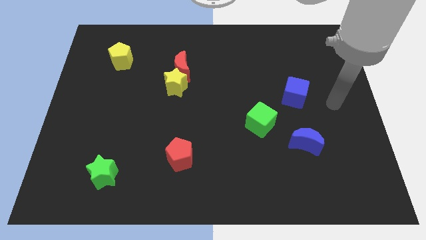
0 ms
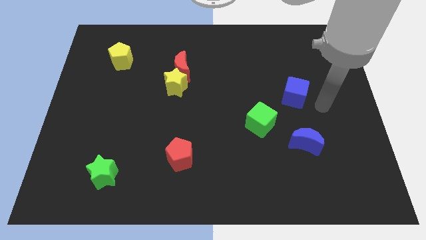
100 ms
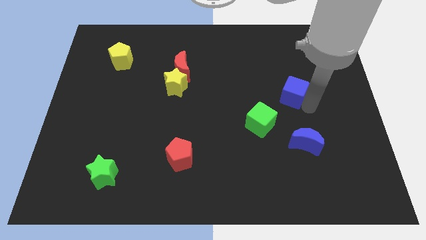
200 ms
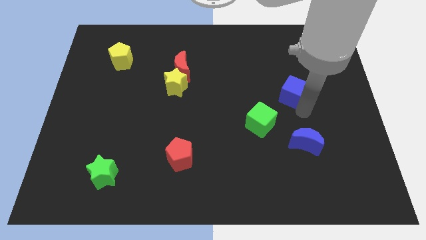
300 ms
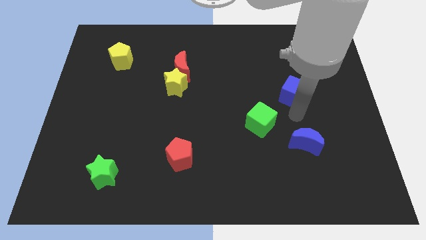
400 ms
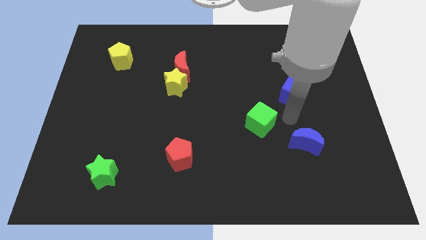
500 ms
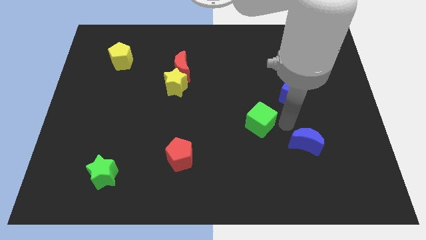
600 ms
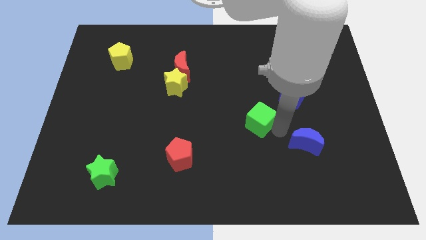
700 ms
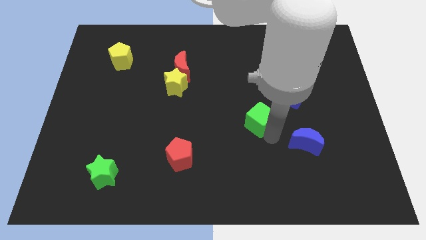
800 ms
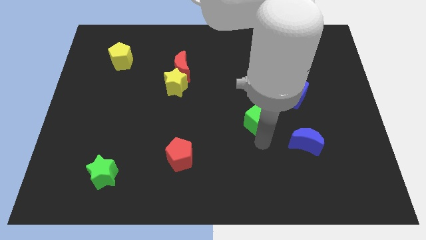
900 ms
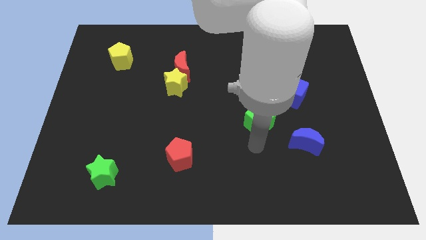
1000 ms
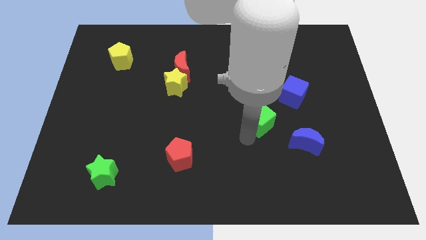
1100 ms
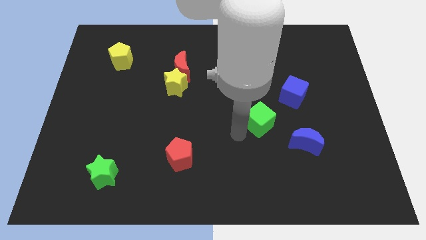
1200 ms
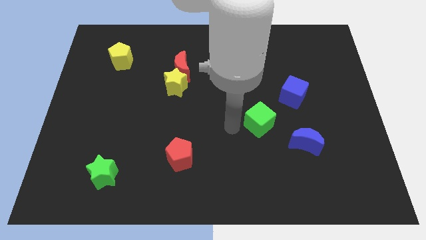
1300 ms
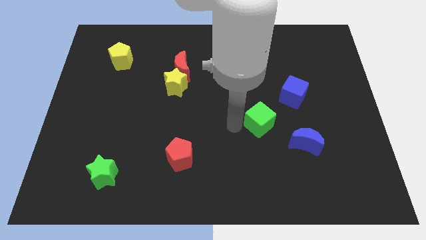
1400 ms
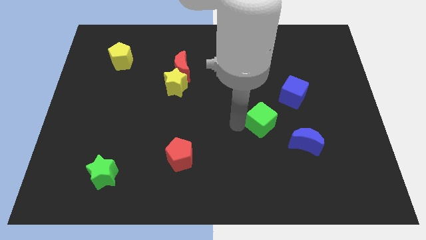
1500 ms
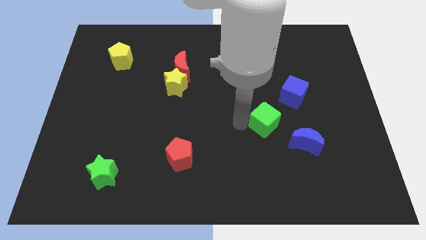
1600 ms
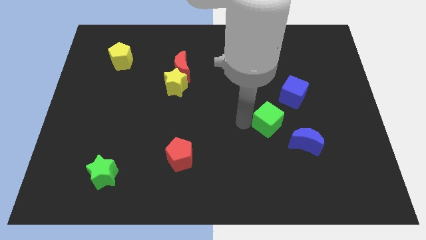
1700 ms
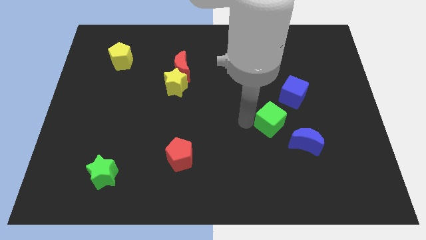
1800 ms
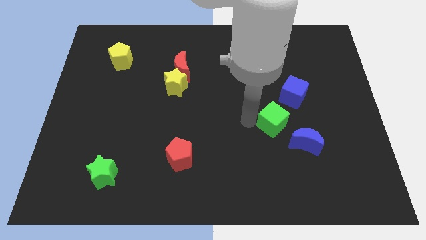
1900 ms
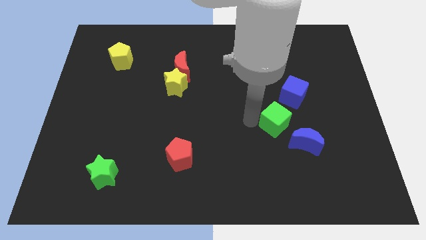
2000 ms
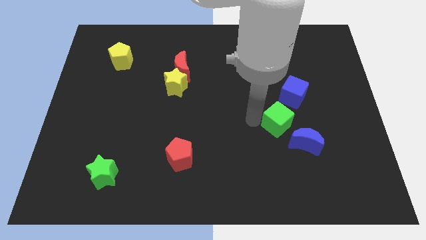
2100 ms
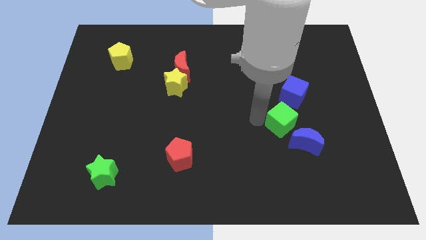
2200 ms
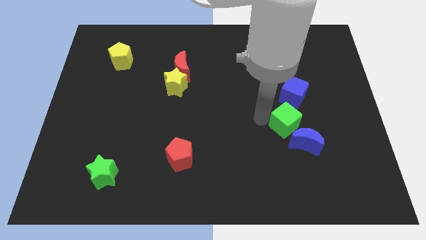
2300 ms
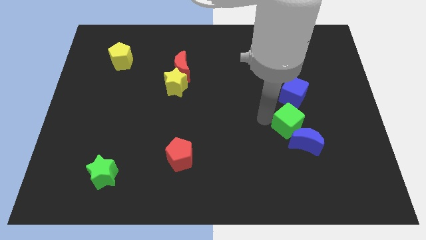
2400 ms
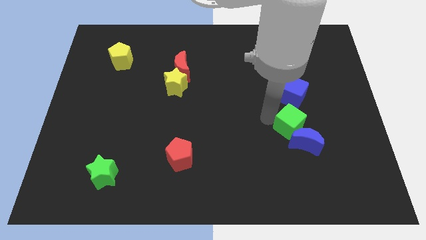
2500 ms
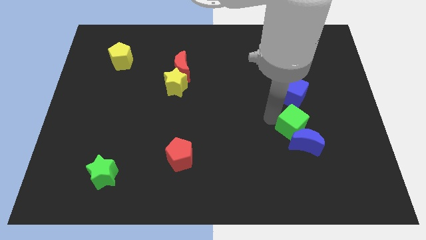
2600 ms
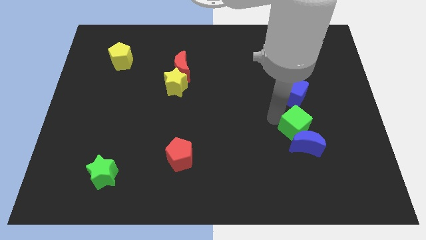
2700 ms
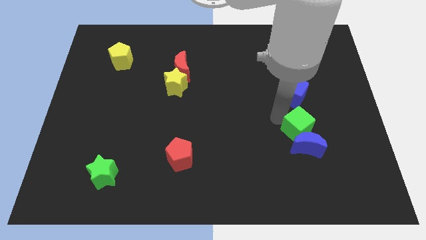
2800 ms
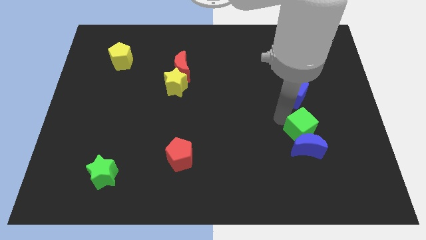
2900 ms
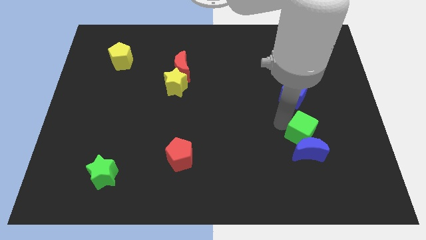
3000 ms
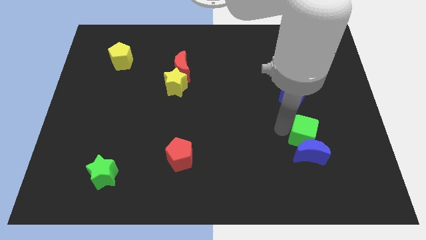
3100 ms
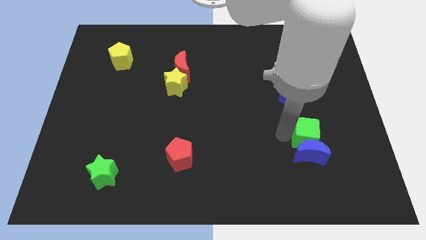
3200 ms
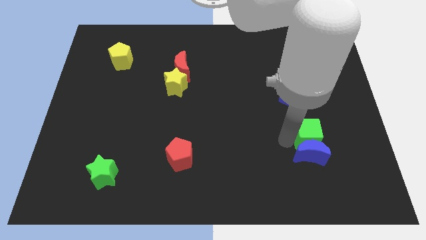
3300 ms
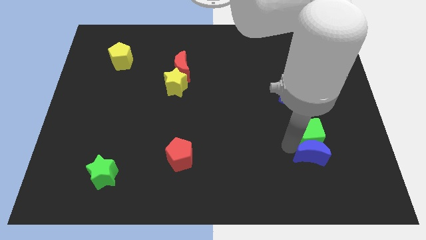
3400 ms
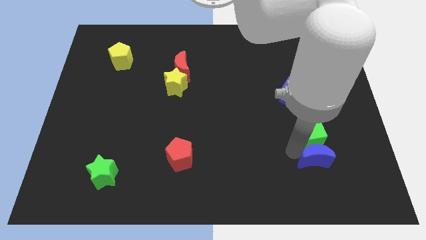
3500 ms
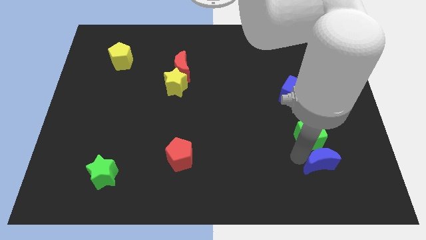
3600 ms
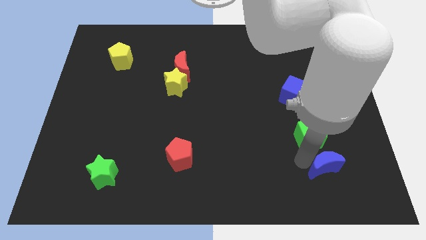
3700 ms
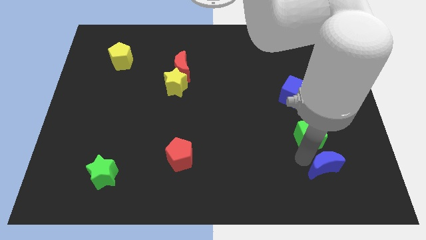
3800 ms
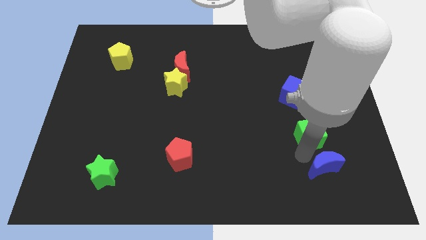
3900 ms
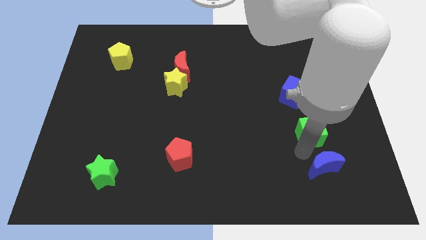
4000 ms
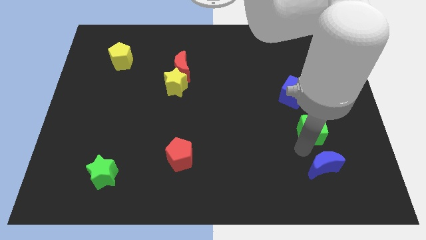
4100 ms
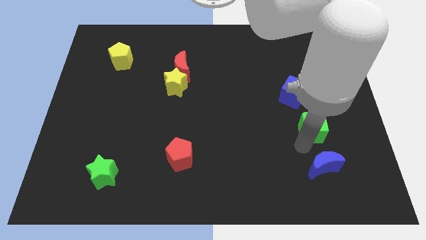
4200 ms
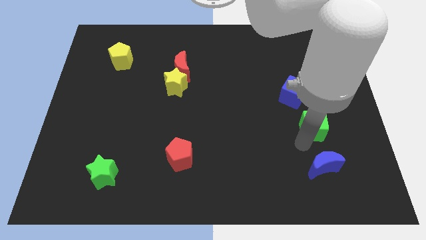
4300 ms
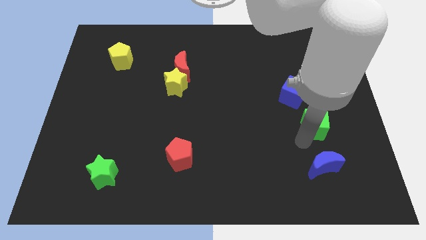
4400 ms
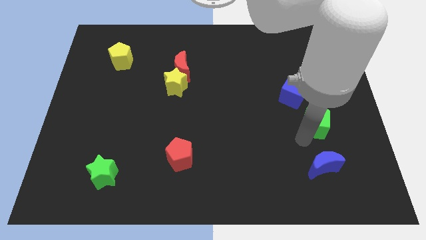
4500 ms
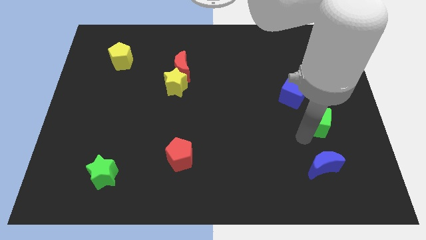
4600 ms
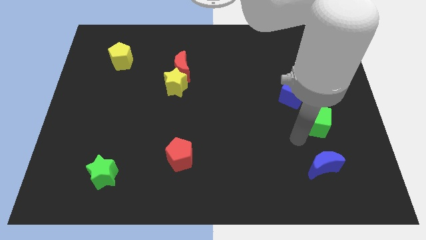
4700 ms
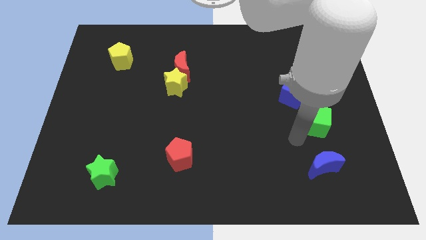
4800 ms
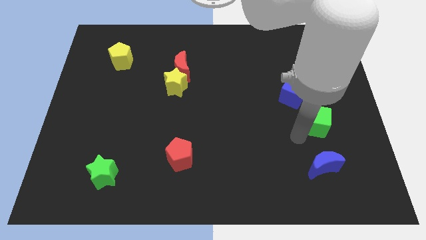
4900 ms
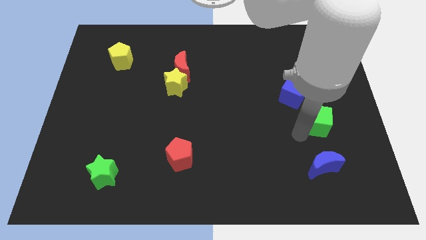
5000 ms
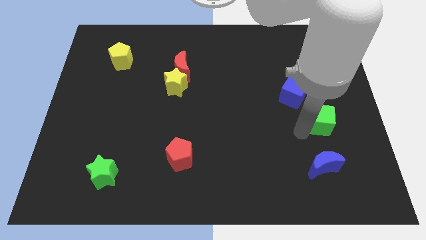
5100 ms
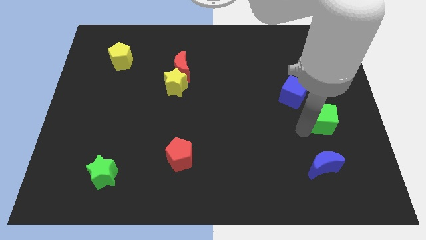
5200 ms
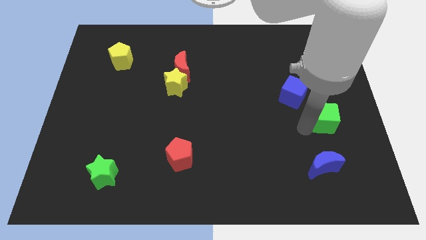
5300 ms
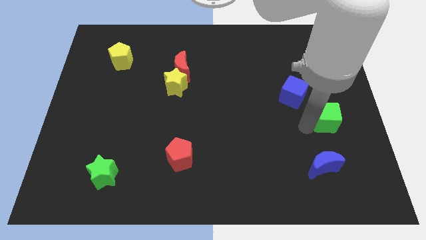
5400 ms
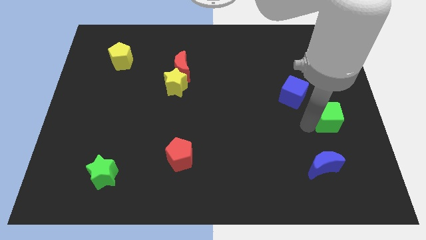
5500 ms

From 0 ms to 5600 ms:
move the green cube to the right side of the board
